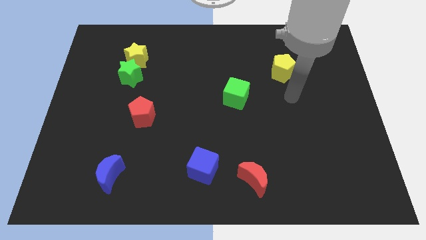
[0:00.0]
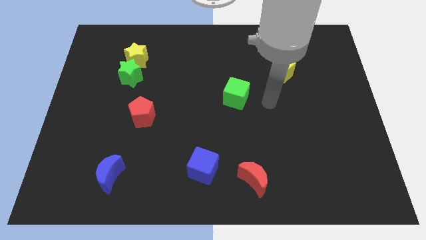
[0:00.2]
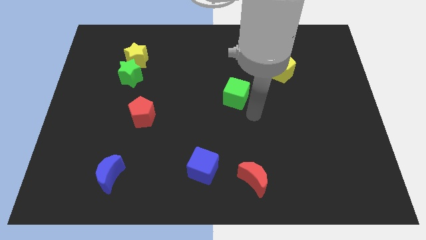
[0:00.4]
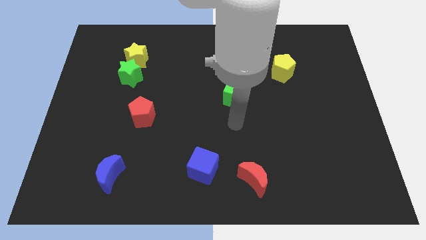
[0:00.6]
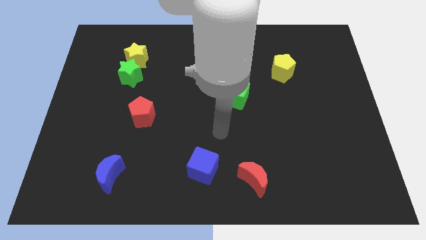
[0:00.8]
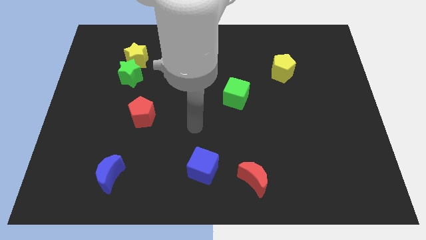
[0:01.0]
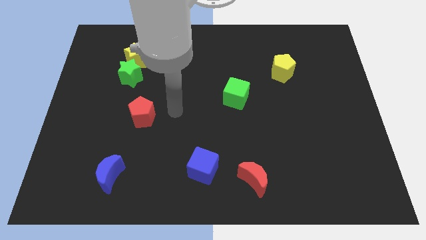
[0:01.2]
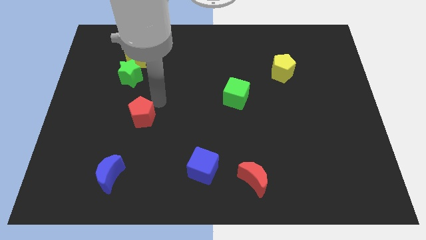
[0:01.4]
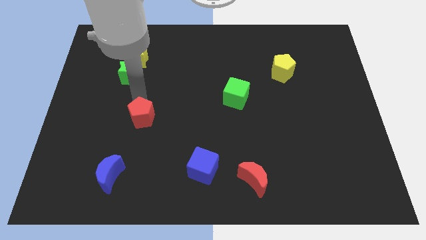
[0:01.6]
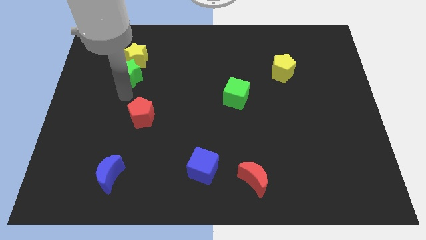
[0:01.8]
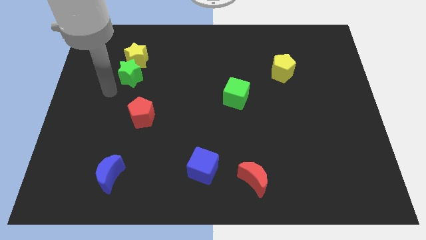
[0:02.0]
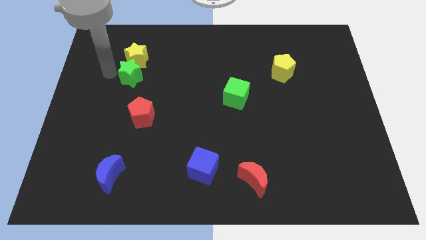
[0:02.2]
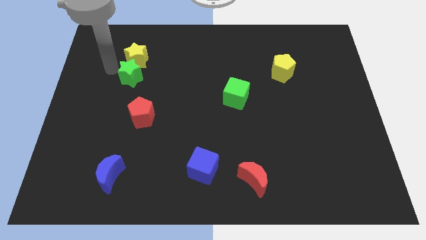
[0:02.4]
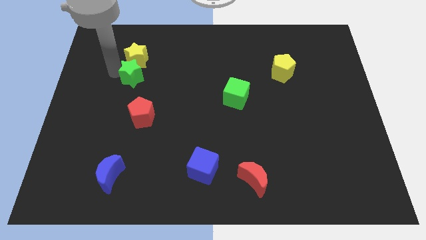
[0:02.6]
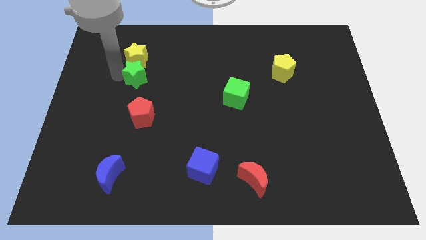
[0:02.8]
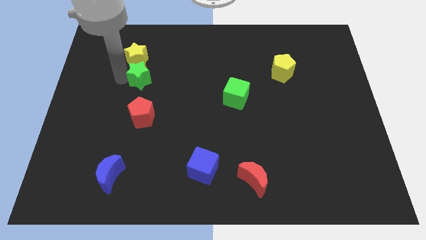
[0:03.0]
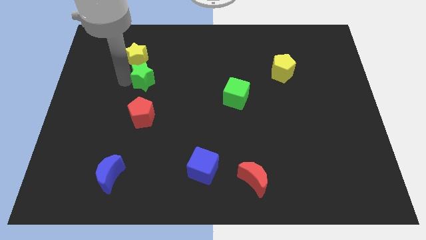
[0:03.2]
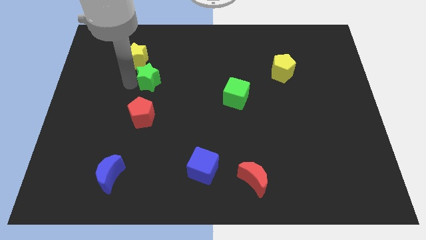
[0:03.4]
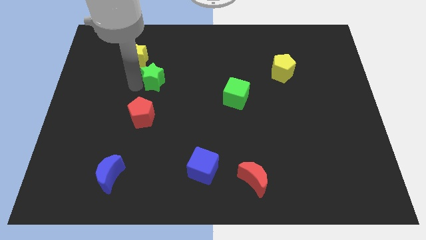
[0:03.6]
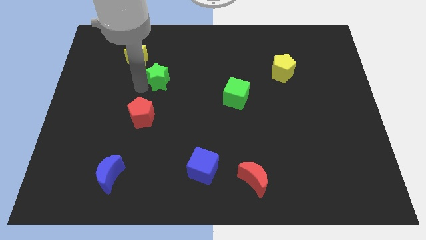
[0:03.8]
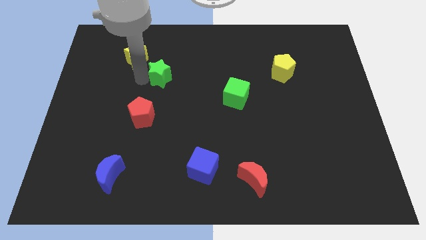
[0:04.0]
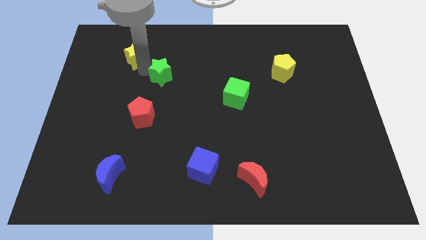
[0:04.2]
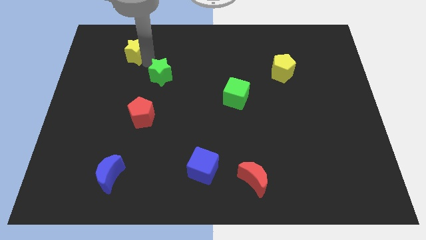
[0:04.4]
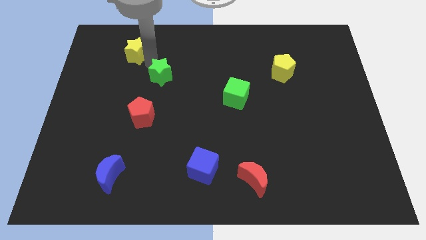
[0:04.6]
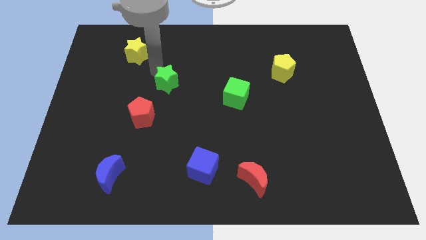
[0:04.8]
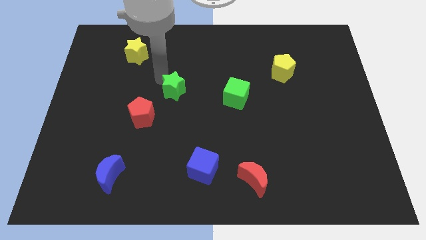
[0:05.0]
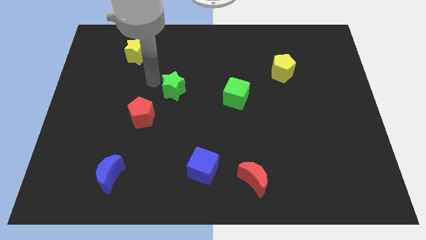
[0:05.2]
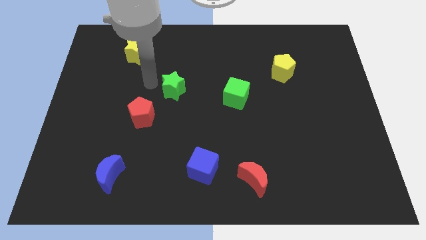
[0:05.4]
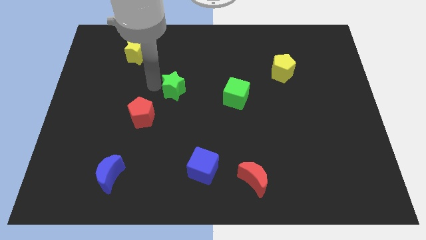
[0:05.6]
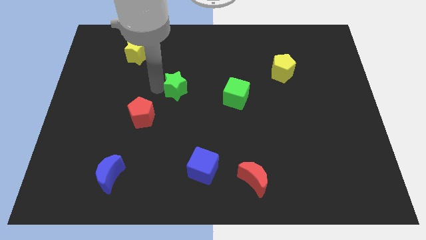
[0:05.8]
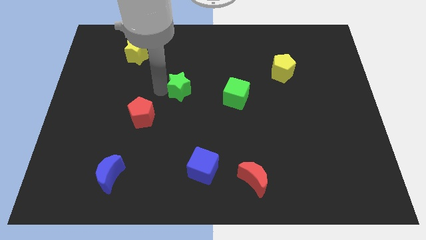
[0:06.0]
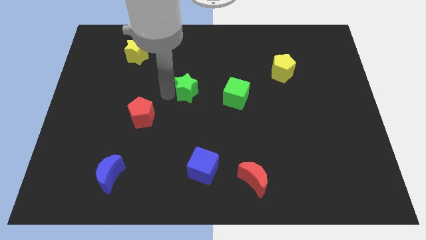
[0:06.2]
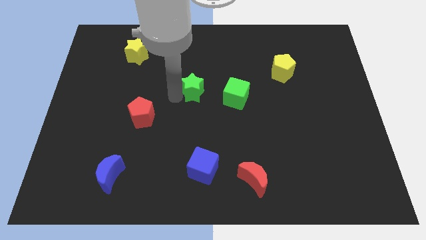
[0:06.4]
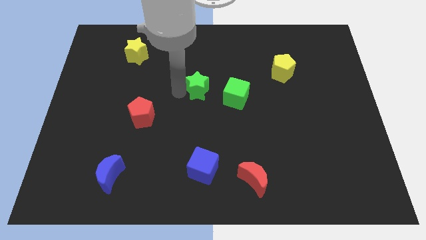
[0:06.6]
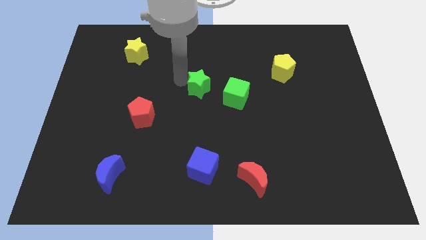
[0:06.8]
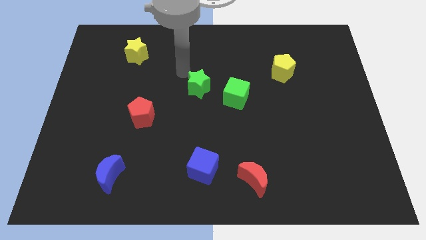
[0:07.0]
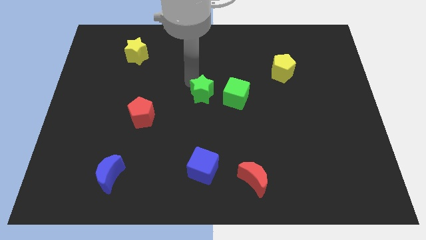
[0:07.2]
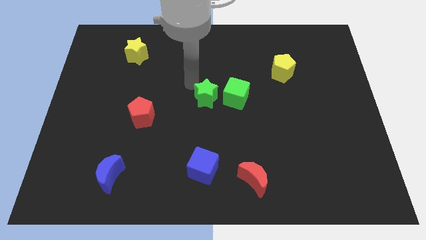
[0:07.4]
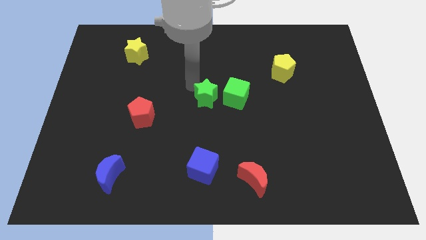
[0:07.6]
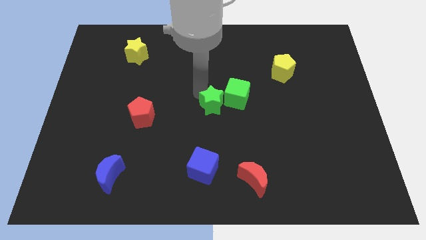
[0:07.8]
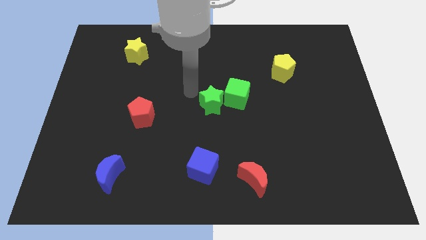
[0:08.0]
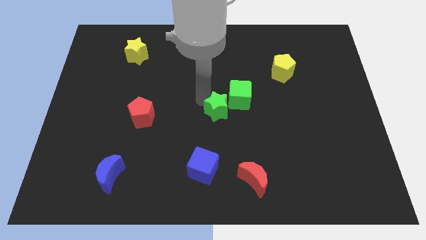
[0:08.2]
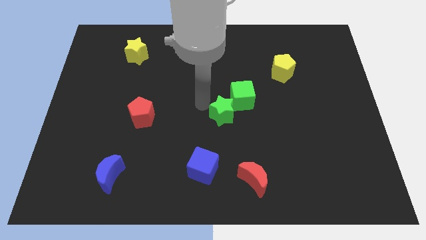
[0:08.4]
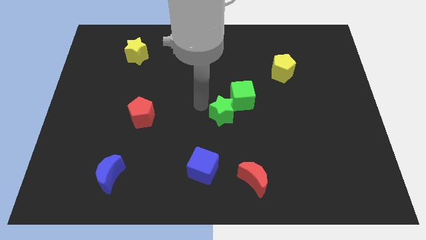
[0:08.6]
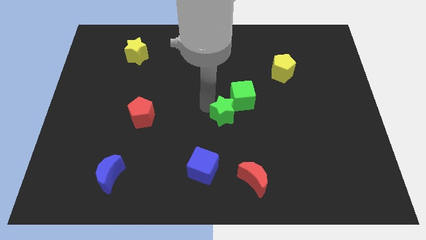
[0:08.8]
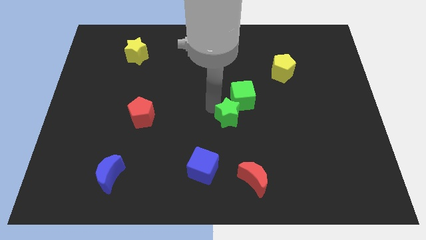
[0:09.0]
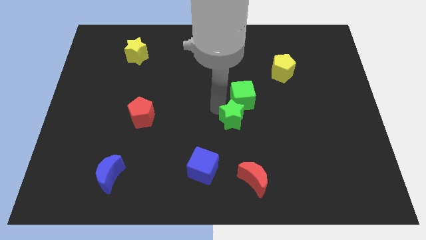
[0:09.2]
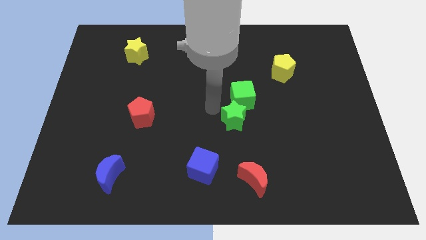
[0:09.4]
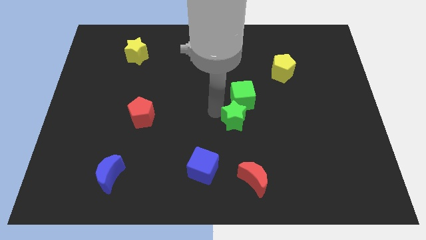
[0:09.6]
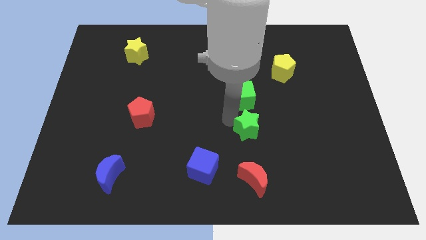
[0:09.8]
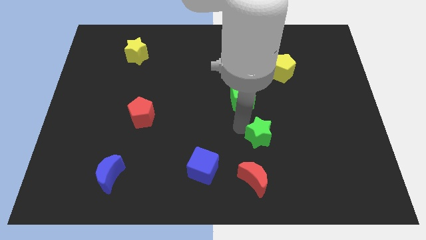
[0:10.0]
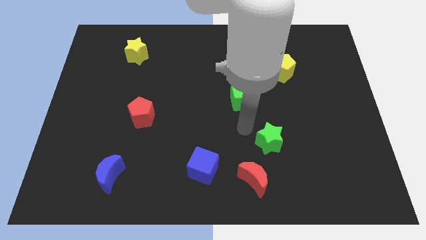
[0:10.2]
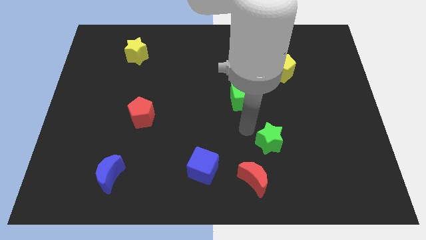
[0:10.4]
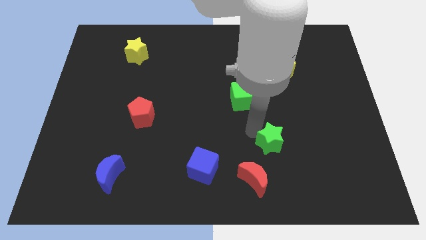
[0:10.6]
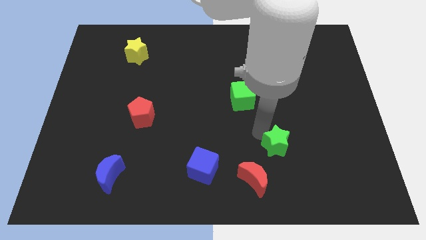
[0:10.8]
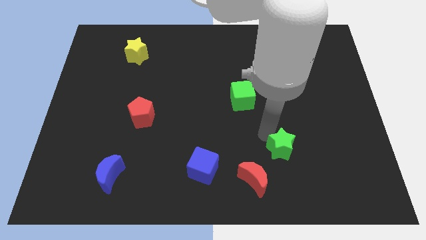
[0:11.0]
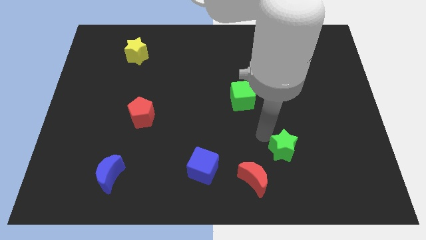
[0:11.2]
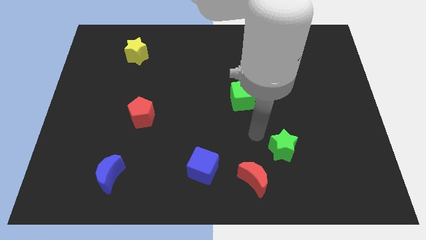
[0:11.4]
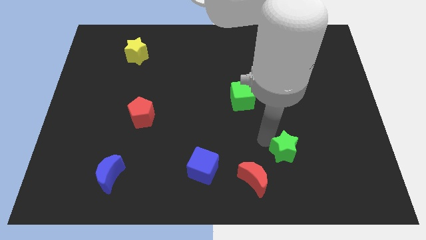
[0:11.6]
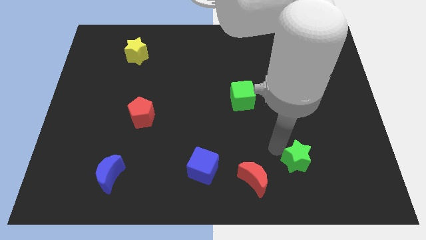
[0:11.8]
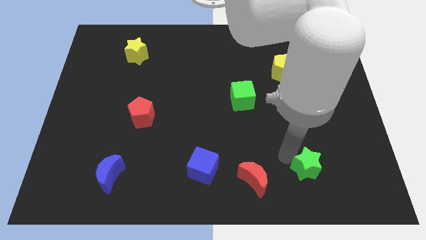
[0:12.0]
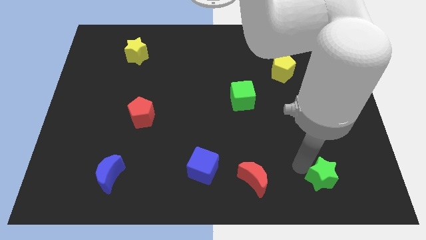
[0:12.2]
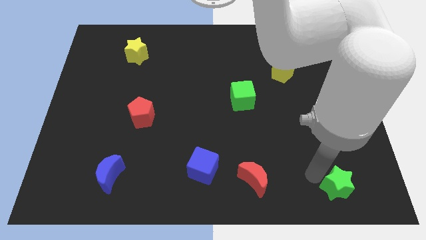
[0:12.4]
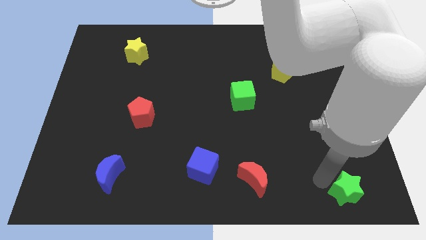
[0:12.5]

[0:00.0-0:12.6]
slide the green star to the bottom right corner
